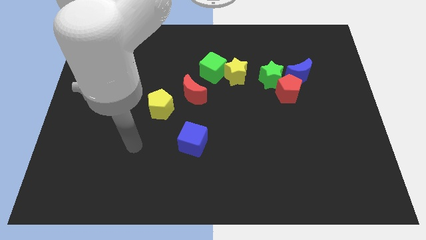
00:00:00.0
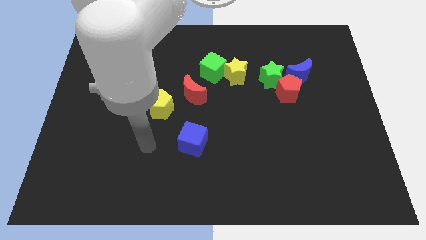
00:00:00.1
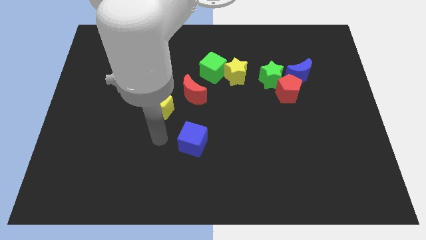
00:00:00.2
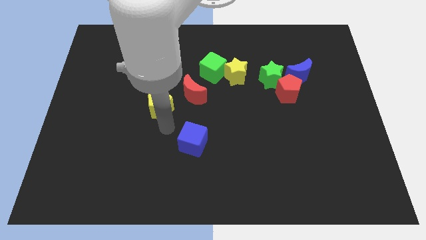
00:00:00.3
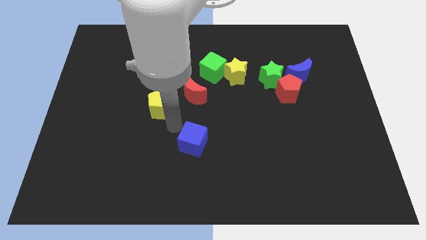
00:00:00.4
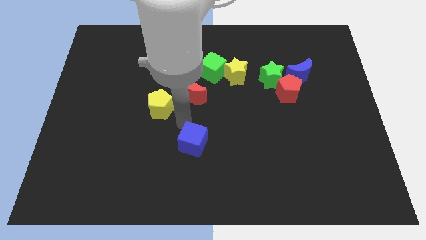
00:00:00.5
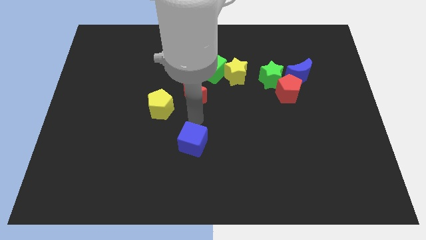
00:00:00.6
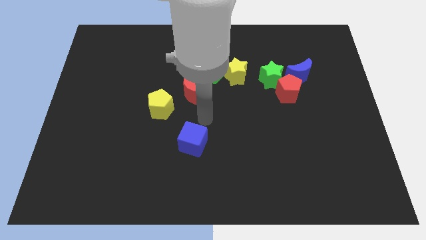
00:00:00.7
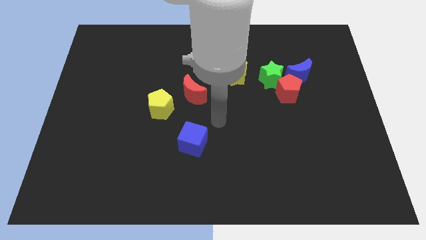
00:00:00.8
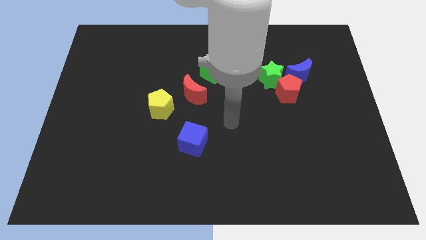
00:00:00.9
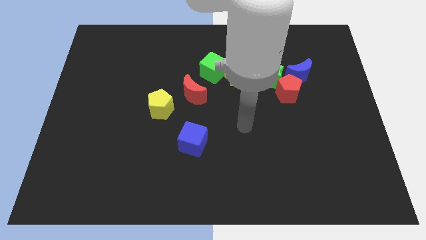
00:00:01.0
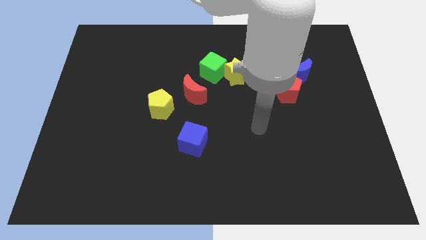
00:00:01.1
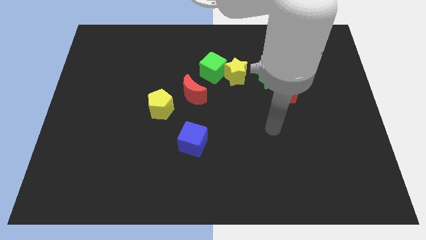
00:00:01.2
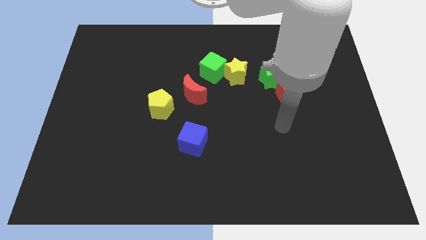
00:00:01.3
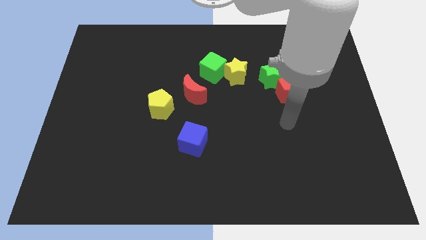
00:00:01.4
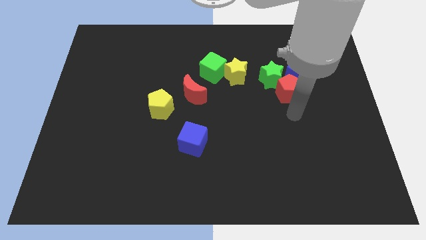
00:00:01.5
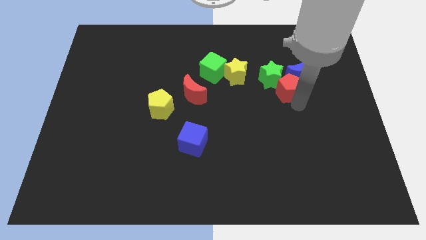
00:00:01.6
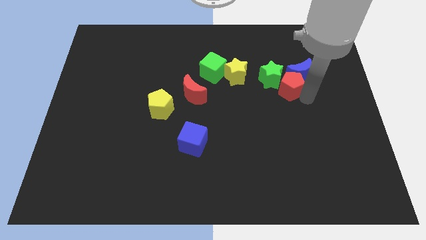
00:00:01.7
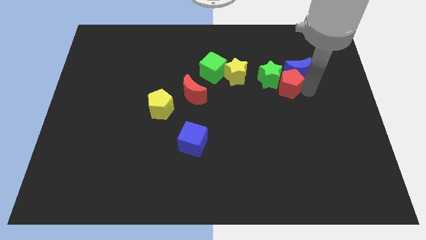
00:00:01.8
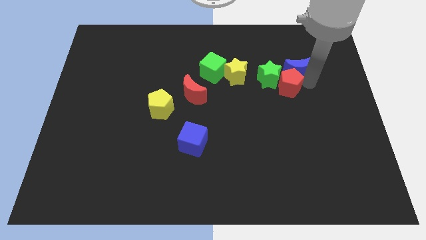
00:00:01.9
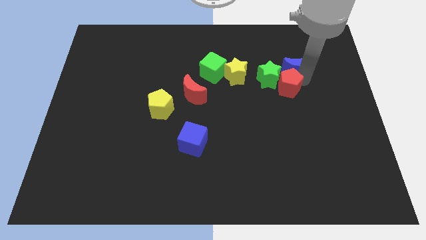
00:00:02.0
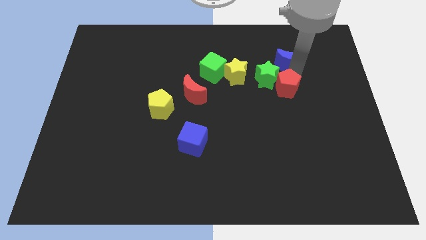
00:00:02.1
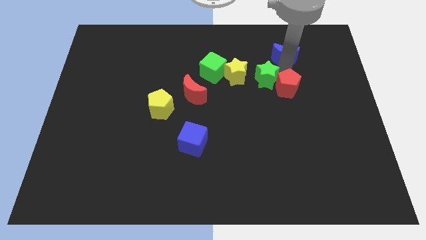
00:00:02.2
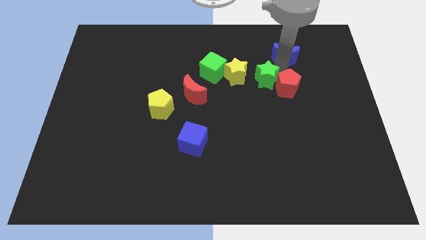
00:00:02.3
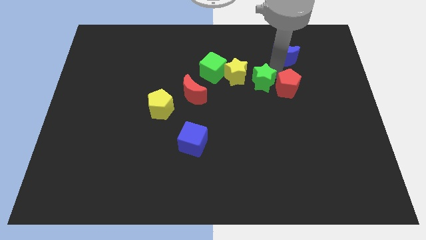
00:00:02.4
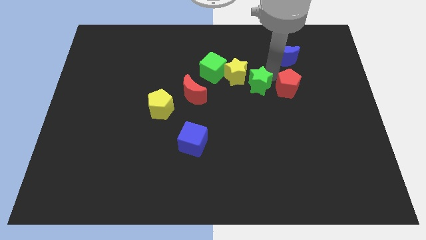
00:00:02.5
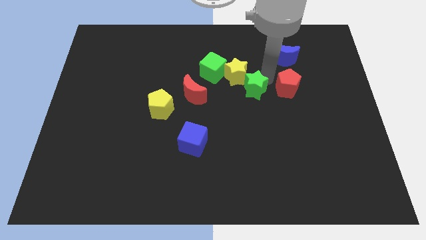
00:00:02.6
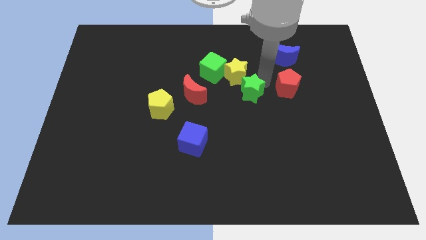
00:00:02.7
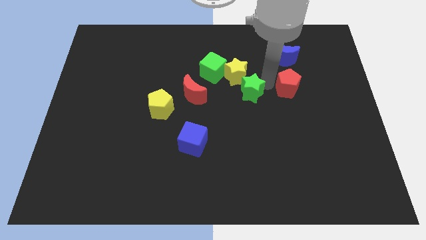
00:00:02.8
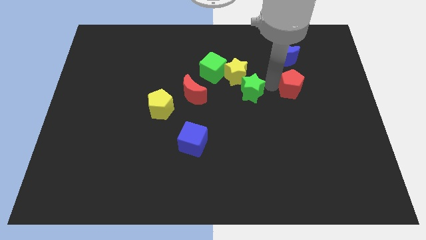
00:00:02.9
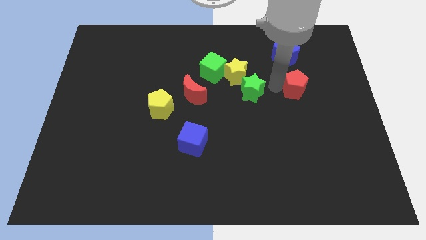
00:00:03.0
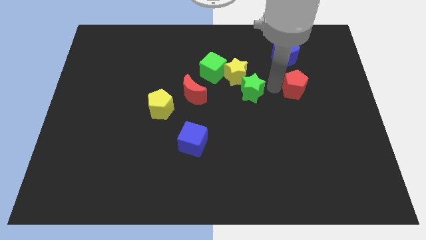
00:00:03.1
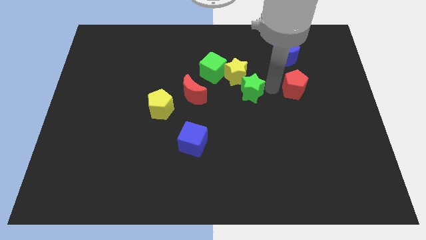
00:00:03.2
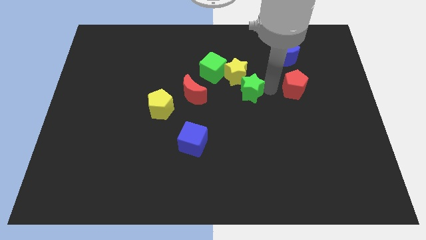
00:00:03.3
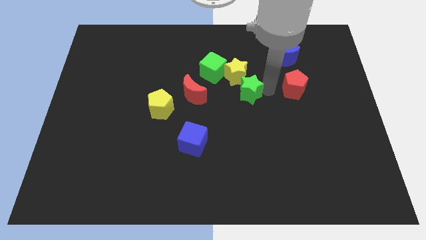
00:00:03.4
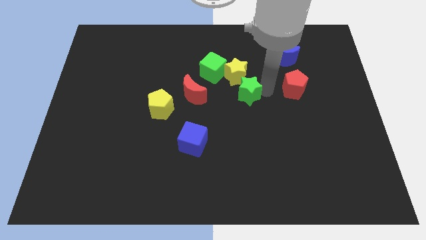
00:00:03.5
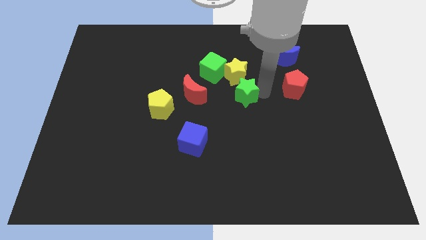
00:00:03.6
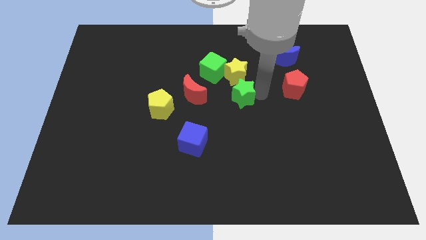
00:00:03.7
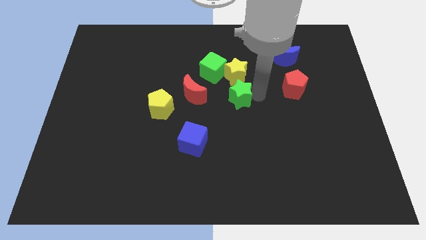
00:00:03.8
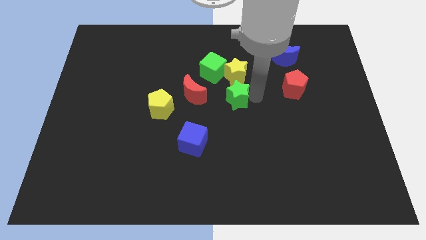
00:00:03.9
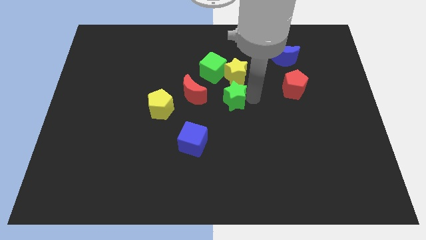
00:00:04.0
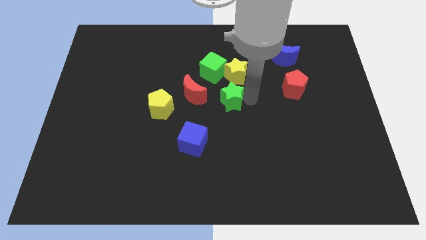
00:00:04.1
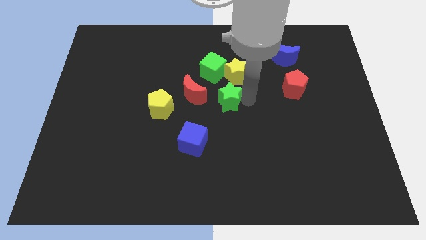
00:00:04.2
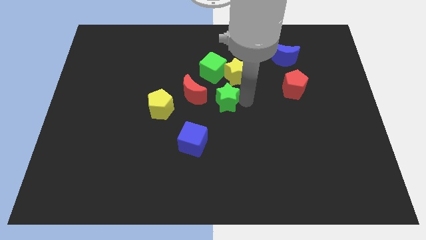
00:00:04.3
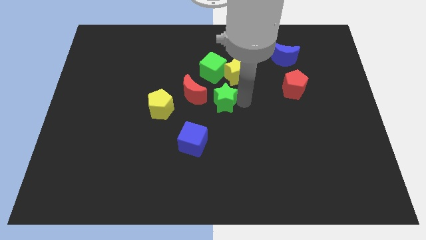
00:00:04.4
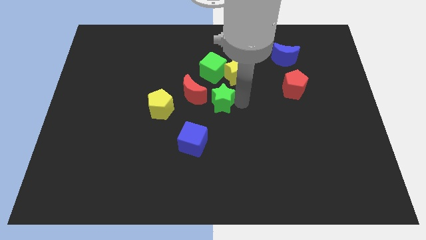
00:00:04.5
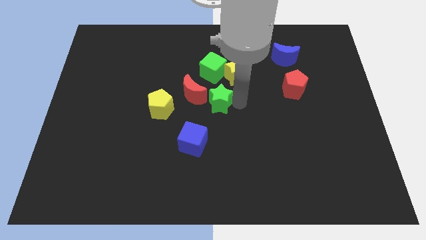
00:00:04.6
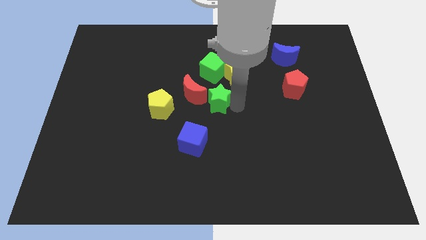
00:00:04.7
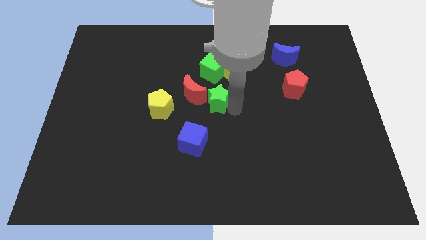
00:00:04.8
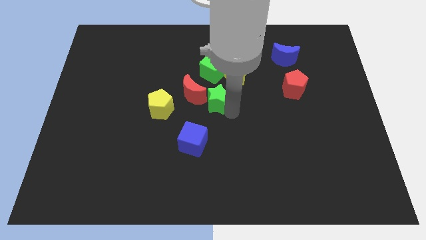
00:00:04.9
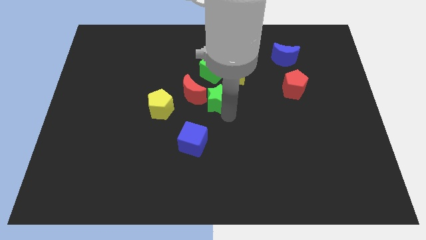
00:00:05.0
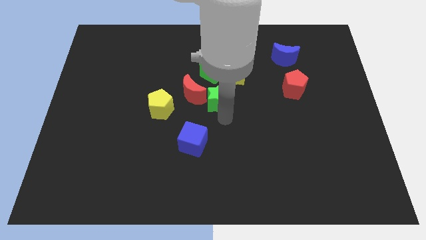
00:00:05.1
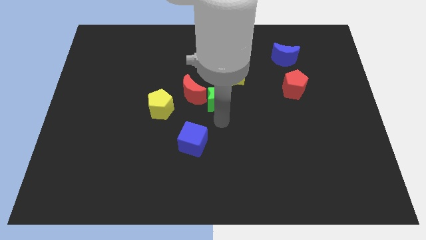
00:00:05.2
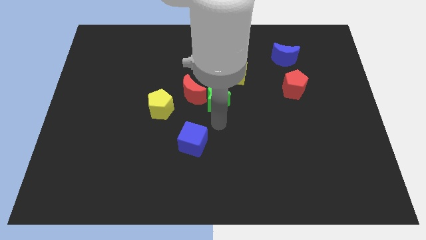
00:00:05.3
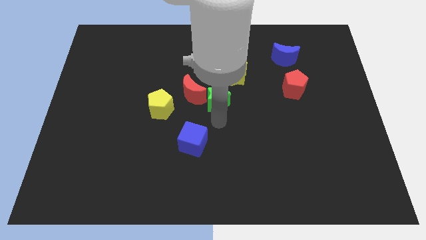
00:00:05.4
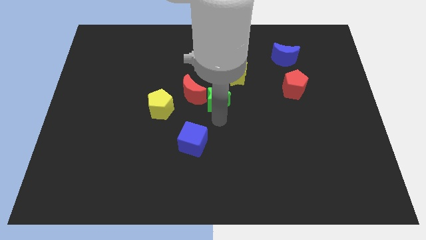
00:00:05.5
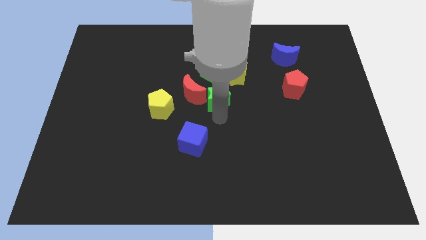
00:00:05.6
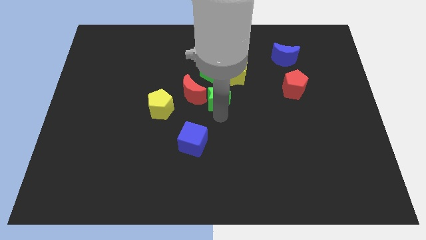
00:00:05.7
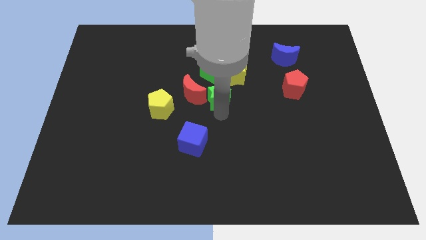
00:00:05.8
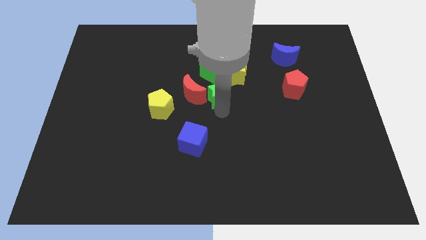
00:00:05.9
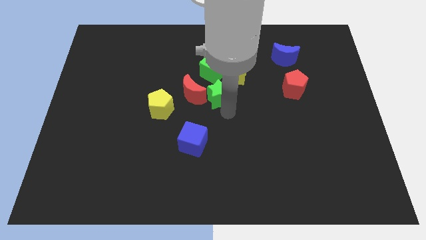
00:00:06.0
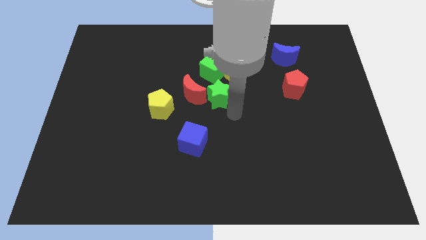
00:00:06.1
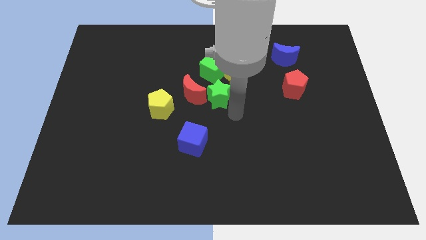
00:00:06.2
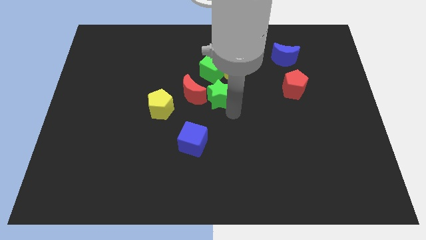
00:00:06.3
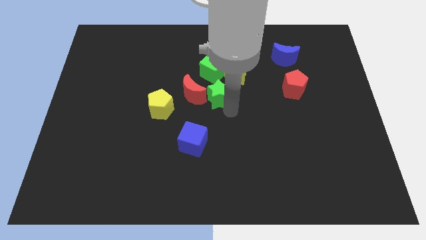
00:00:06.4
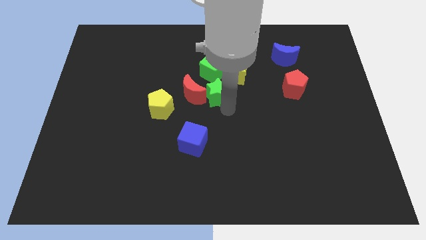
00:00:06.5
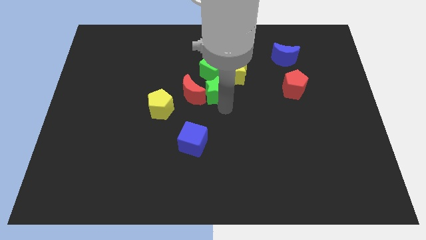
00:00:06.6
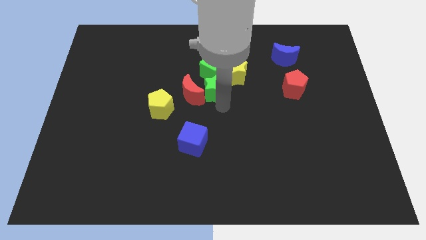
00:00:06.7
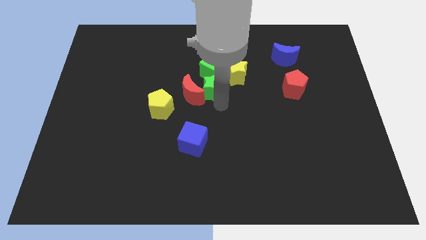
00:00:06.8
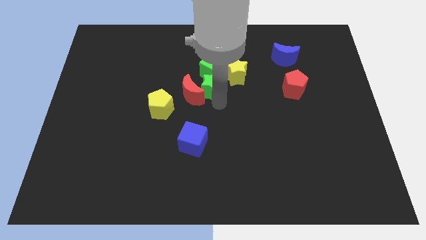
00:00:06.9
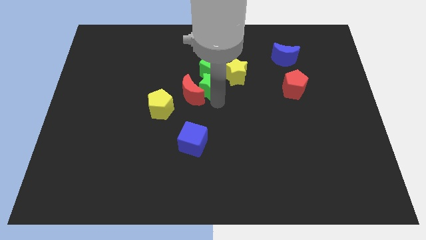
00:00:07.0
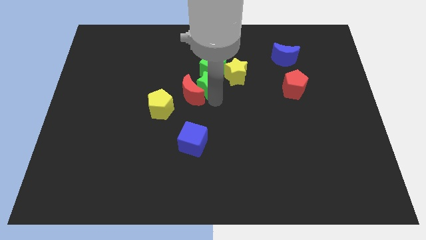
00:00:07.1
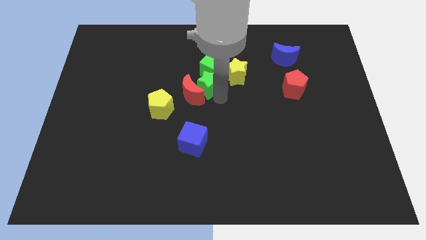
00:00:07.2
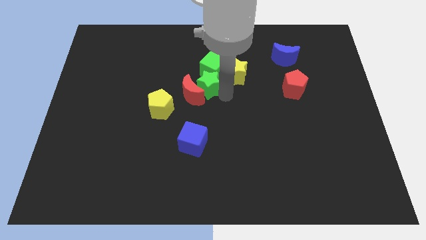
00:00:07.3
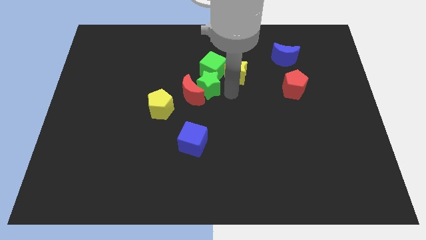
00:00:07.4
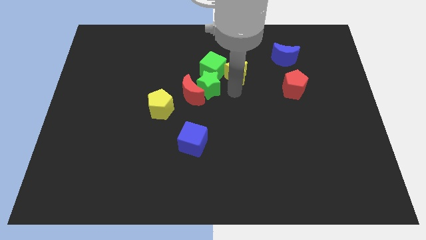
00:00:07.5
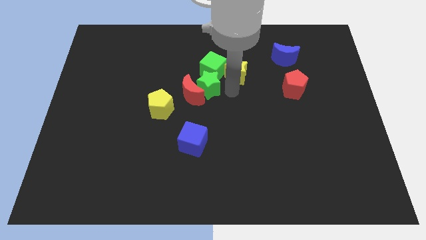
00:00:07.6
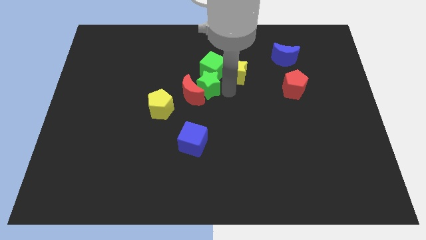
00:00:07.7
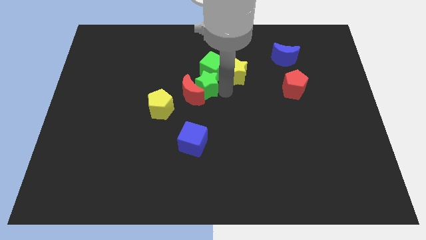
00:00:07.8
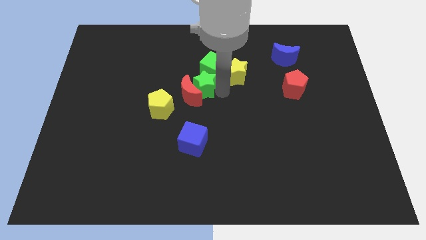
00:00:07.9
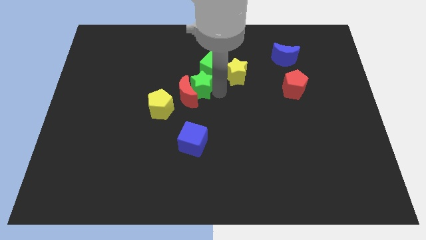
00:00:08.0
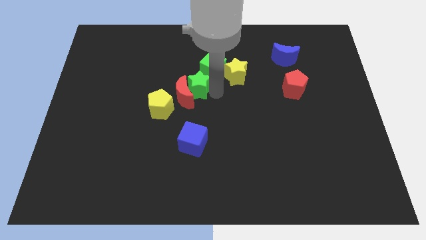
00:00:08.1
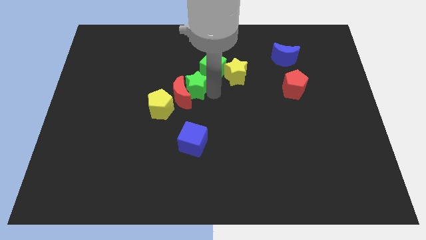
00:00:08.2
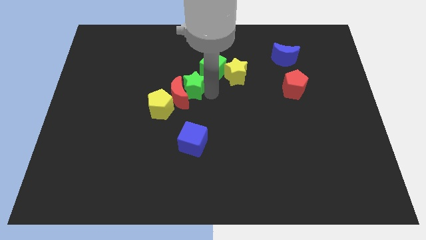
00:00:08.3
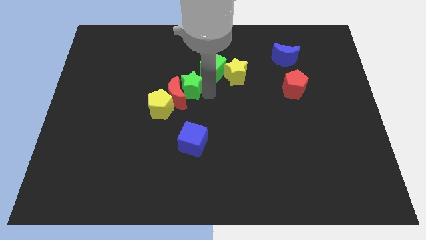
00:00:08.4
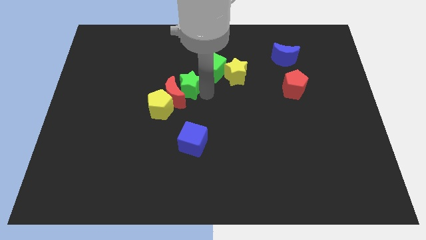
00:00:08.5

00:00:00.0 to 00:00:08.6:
push the green star left
